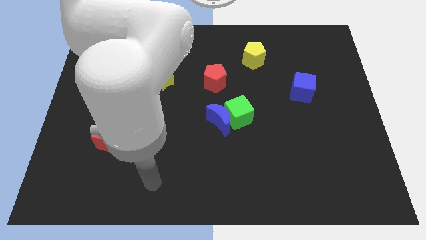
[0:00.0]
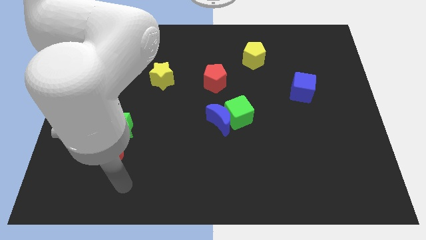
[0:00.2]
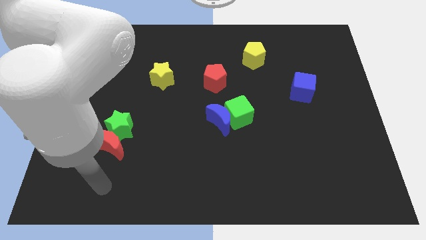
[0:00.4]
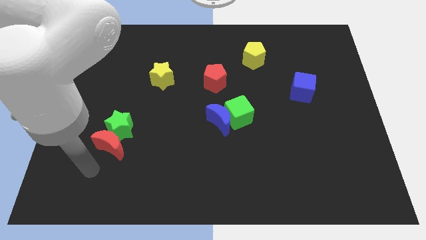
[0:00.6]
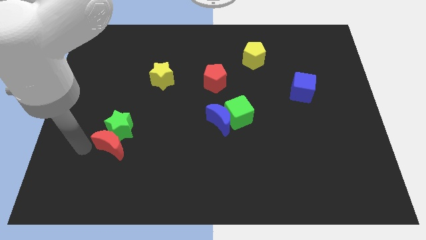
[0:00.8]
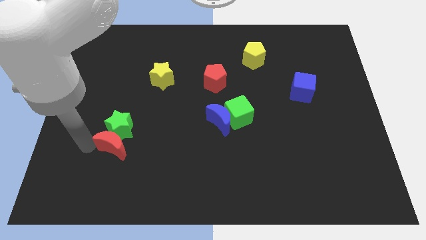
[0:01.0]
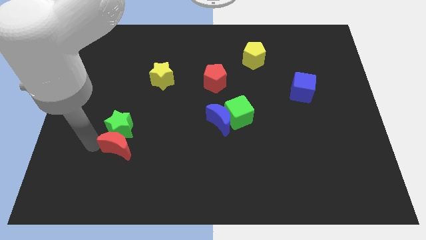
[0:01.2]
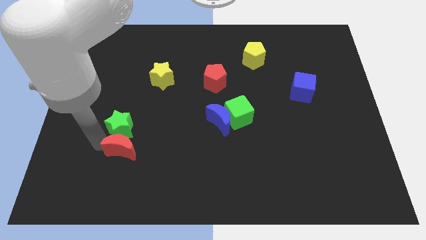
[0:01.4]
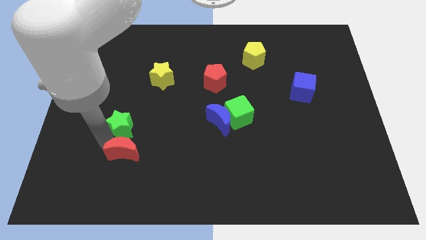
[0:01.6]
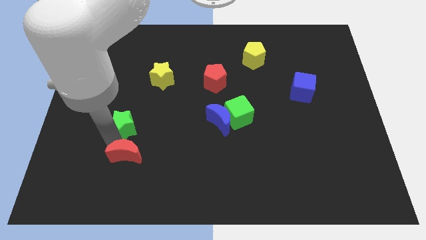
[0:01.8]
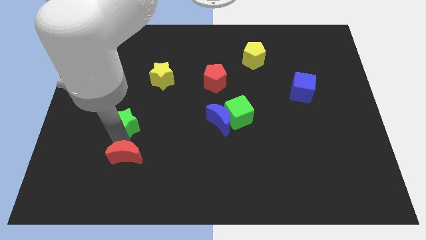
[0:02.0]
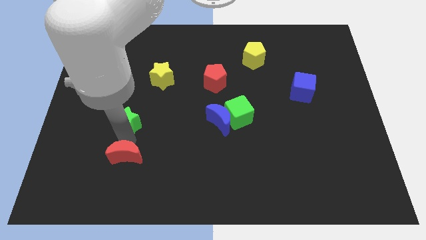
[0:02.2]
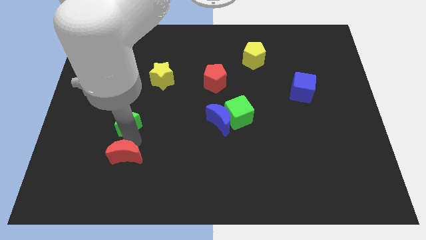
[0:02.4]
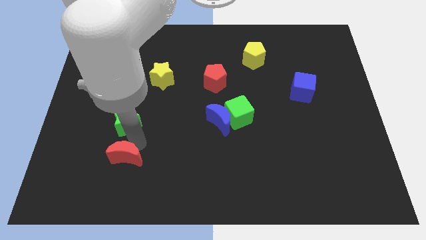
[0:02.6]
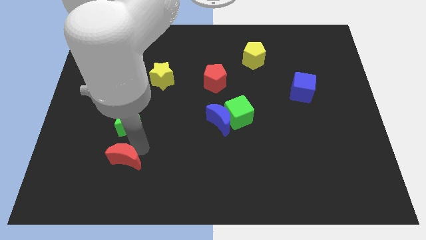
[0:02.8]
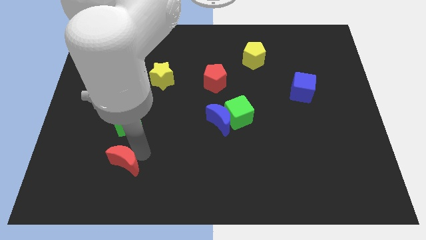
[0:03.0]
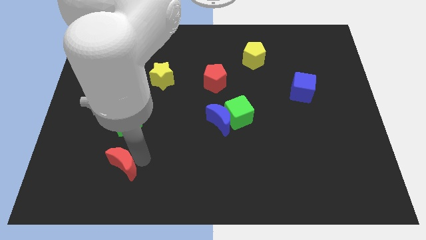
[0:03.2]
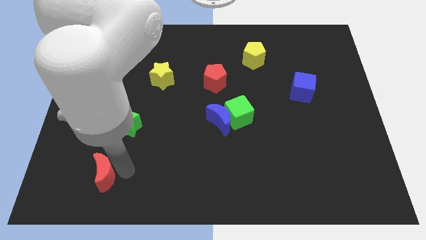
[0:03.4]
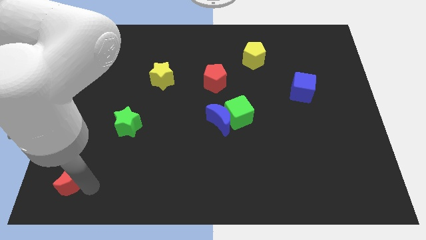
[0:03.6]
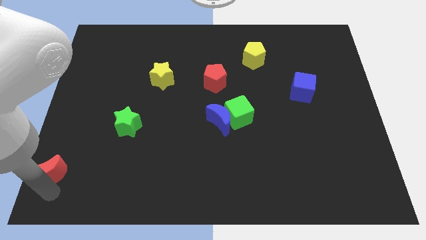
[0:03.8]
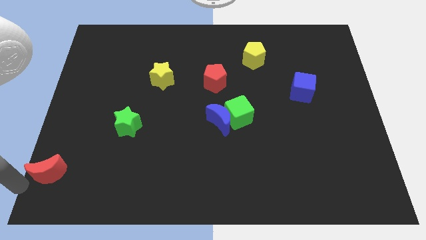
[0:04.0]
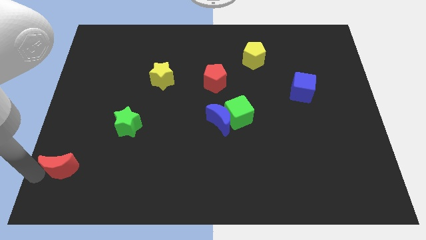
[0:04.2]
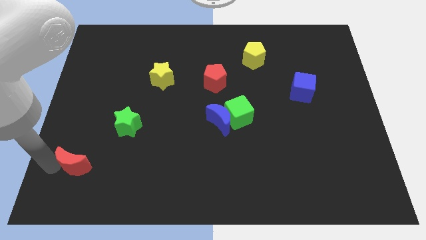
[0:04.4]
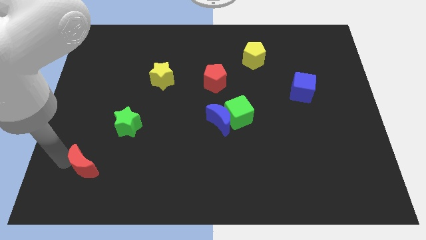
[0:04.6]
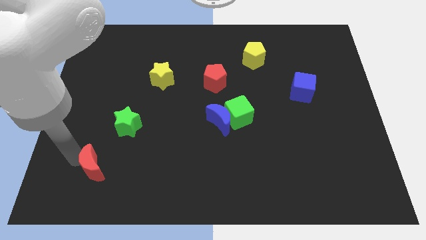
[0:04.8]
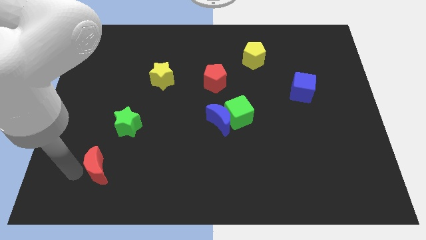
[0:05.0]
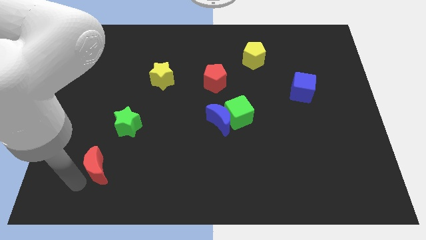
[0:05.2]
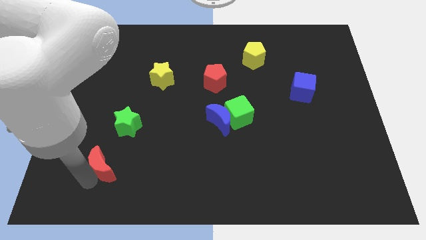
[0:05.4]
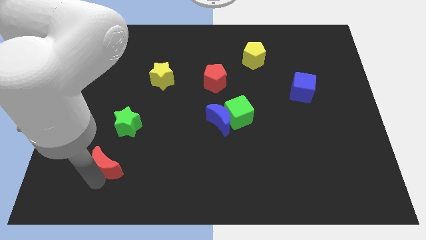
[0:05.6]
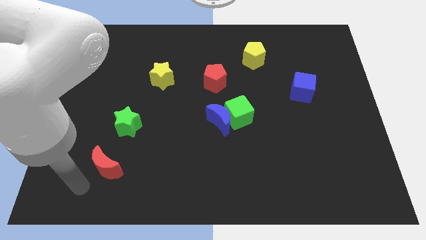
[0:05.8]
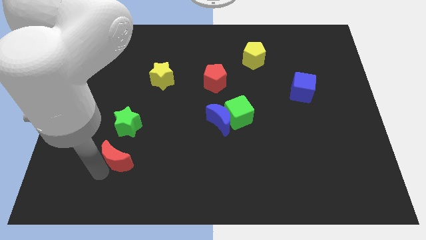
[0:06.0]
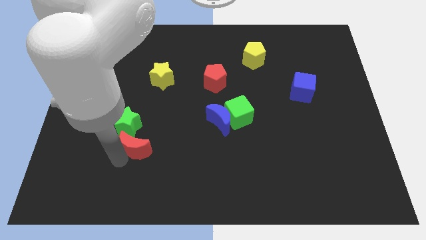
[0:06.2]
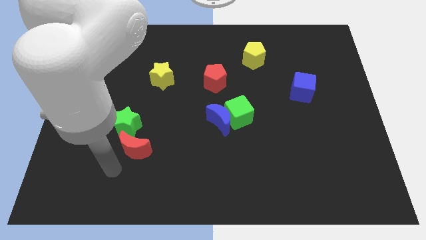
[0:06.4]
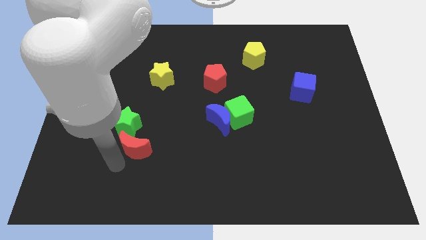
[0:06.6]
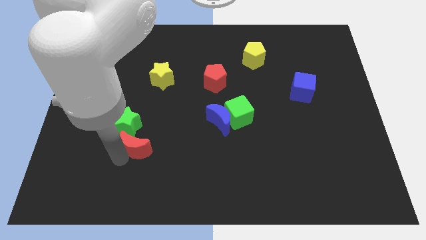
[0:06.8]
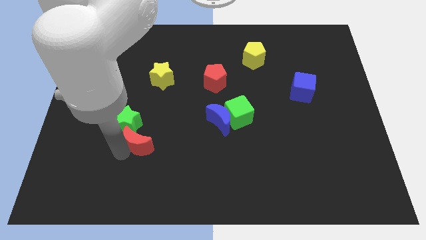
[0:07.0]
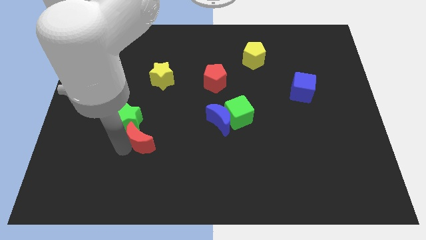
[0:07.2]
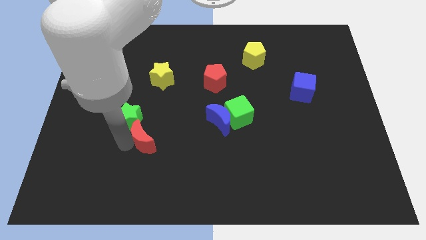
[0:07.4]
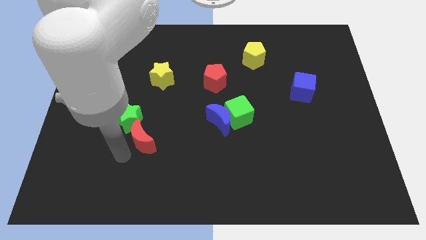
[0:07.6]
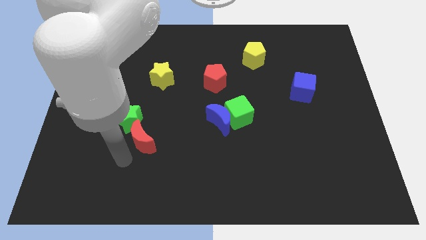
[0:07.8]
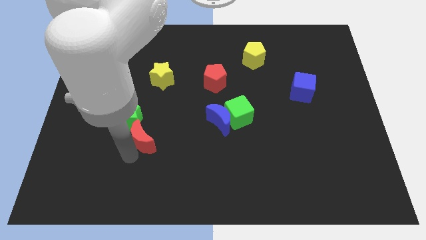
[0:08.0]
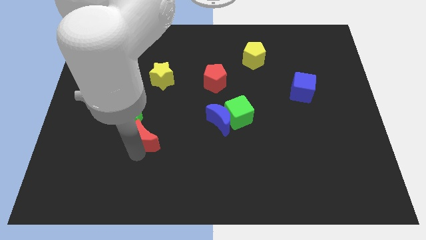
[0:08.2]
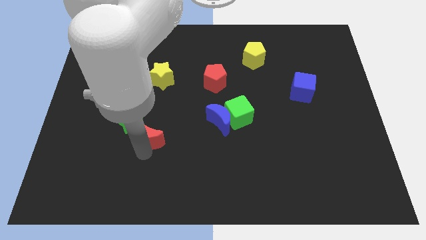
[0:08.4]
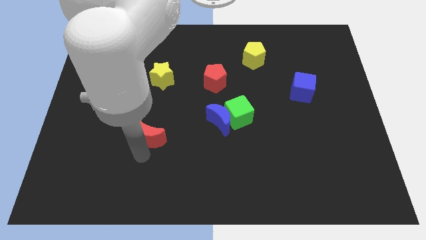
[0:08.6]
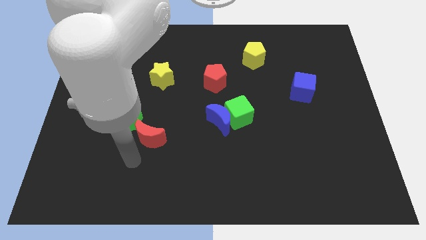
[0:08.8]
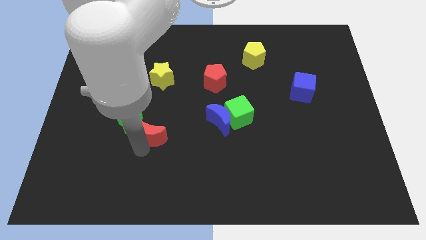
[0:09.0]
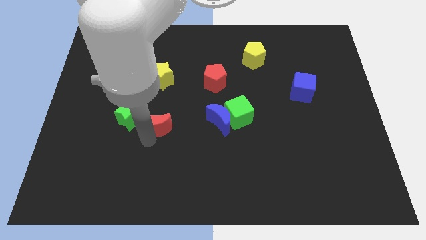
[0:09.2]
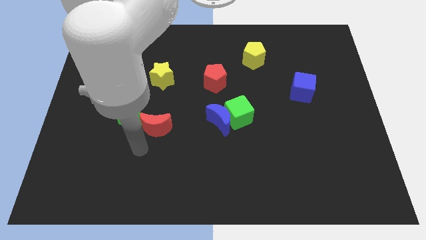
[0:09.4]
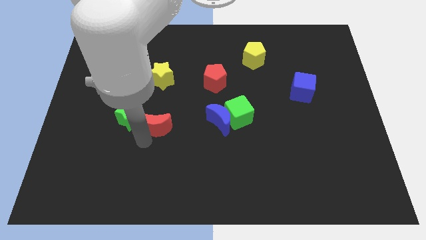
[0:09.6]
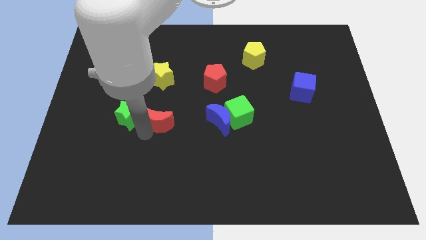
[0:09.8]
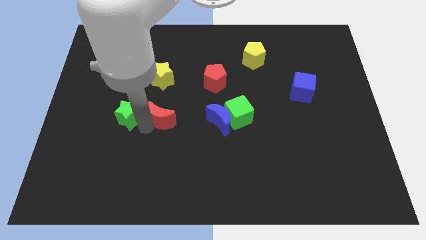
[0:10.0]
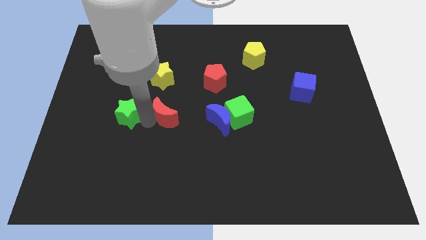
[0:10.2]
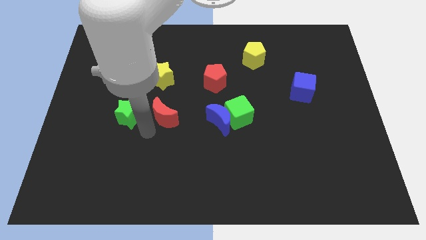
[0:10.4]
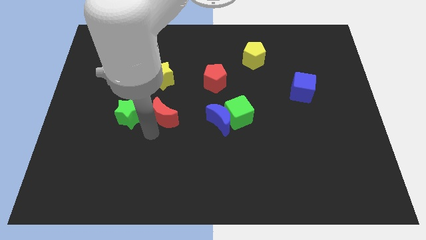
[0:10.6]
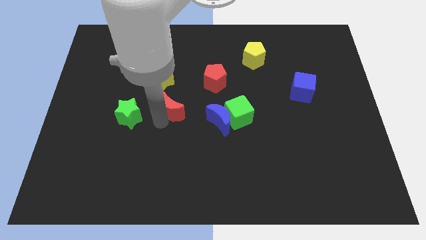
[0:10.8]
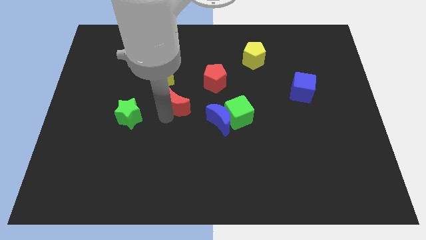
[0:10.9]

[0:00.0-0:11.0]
slide the red moon to the bottom right side of the yellow star

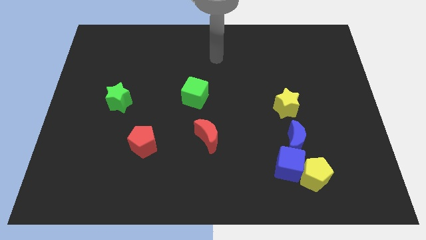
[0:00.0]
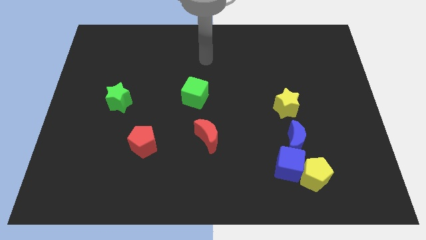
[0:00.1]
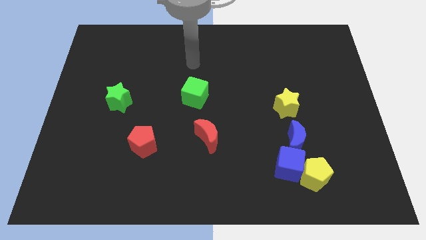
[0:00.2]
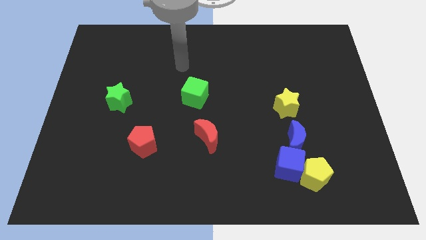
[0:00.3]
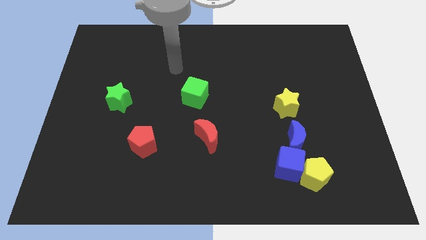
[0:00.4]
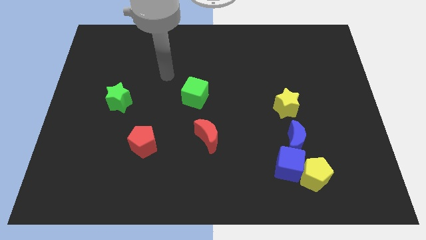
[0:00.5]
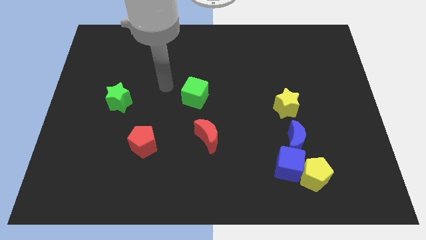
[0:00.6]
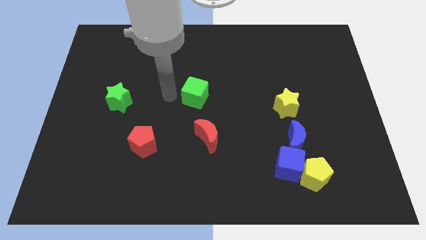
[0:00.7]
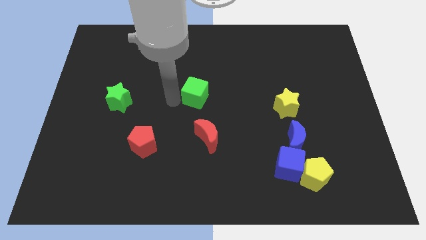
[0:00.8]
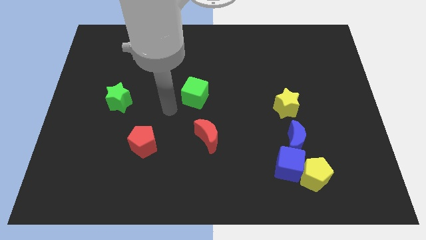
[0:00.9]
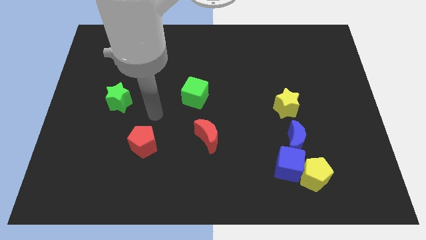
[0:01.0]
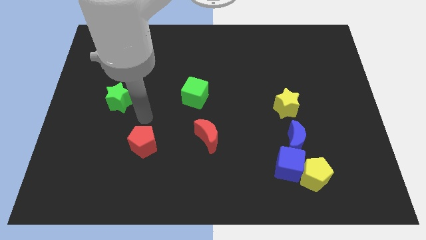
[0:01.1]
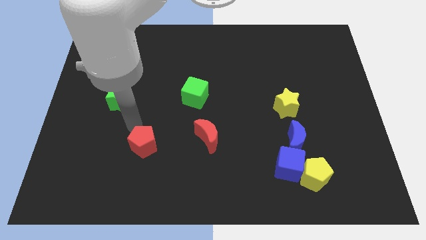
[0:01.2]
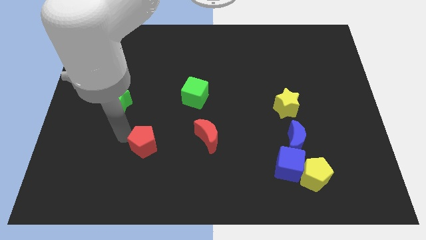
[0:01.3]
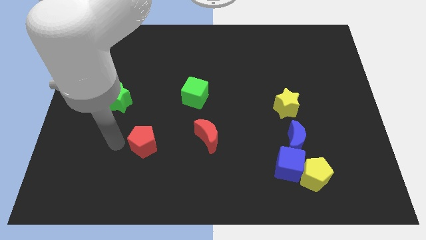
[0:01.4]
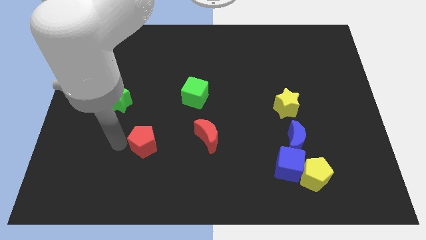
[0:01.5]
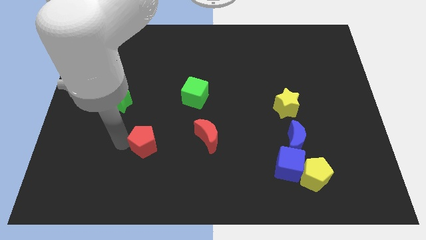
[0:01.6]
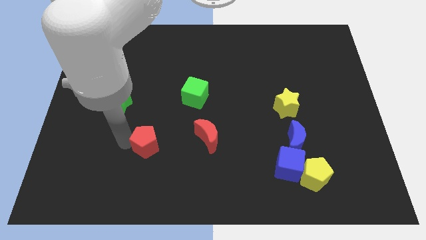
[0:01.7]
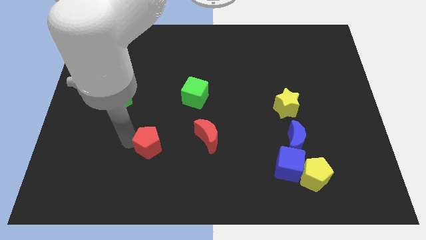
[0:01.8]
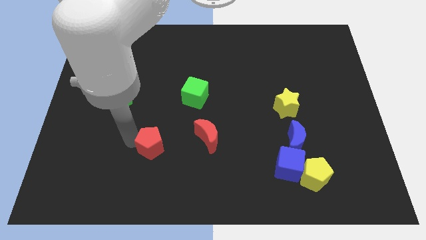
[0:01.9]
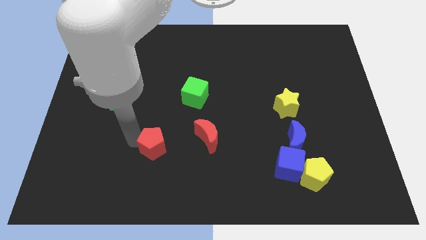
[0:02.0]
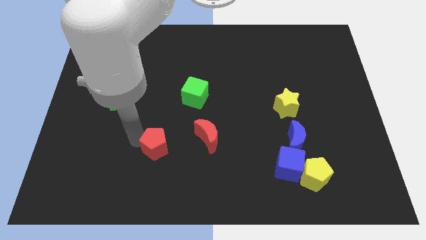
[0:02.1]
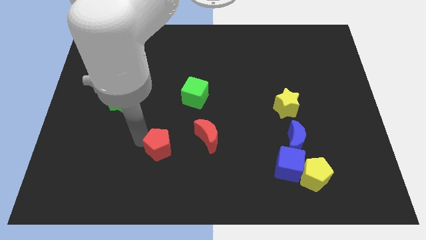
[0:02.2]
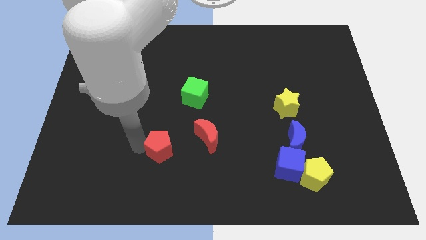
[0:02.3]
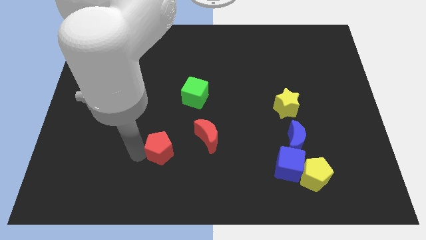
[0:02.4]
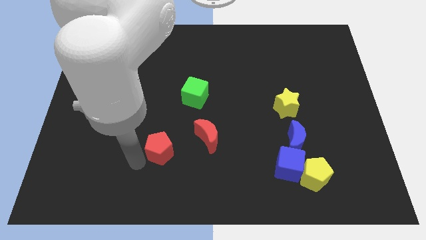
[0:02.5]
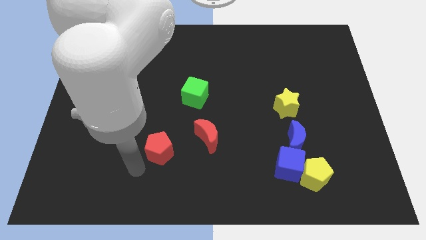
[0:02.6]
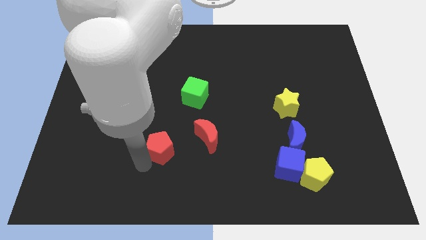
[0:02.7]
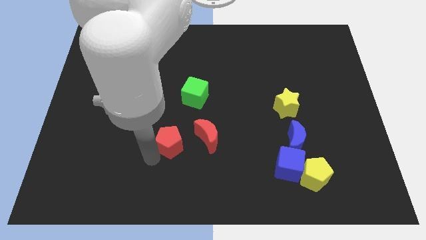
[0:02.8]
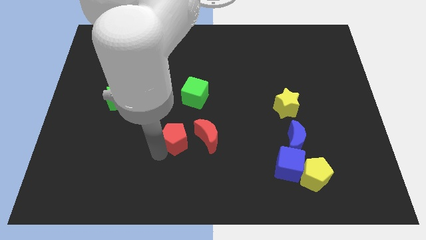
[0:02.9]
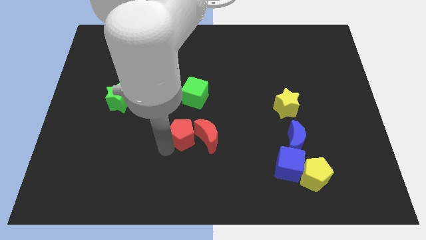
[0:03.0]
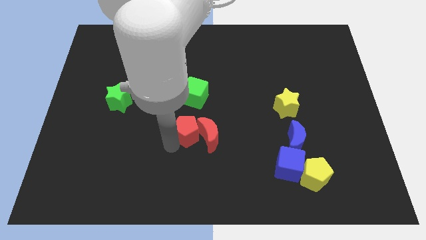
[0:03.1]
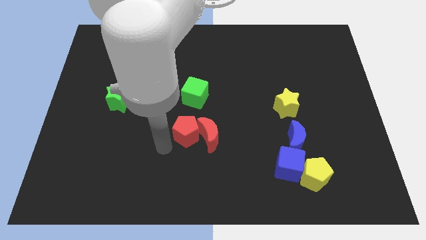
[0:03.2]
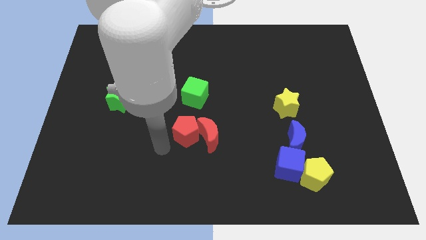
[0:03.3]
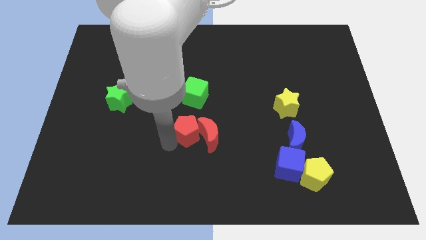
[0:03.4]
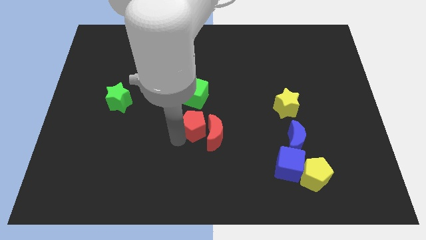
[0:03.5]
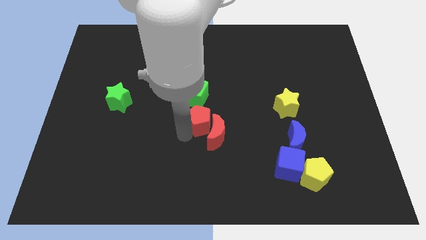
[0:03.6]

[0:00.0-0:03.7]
push the red pentagon above the red moon
